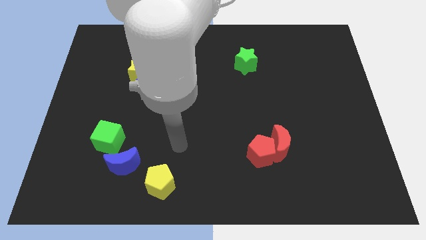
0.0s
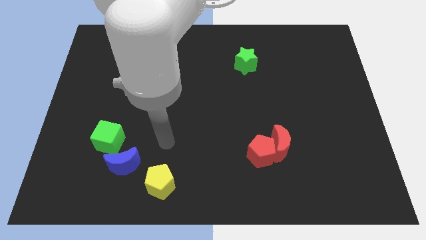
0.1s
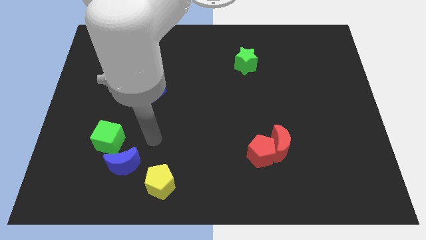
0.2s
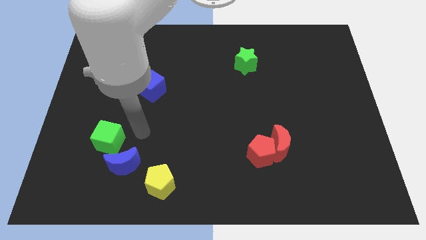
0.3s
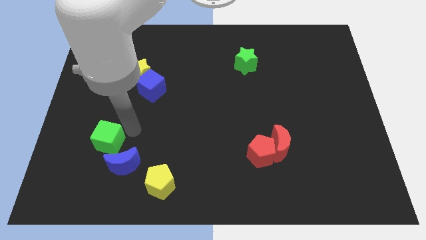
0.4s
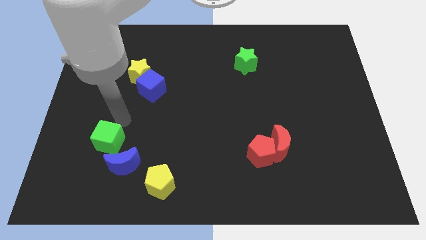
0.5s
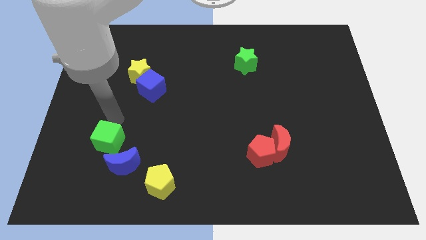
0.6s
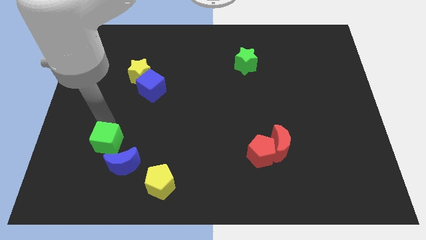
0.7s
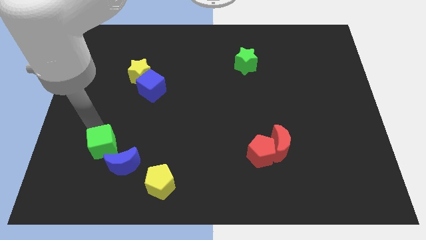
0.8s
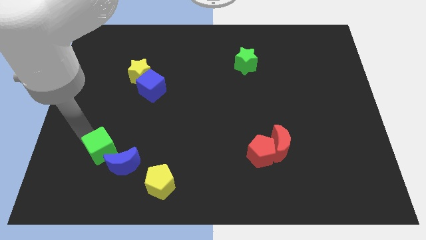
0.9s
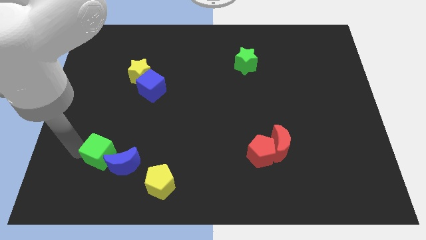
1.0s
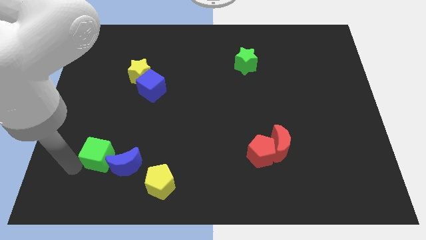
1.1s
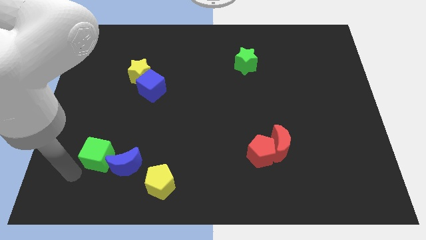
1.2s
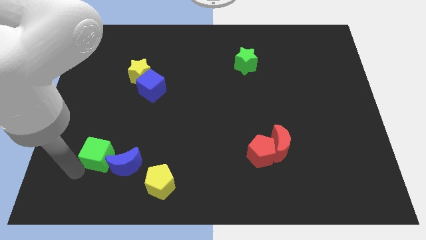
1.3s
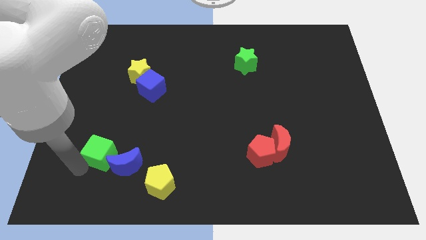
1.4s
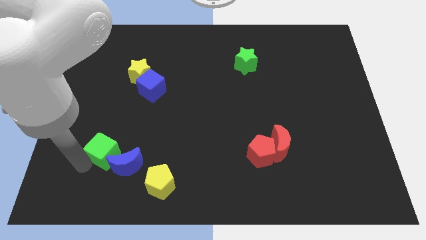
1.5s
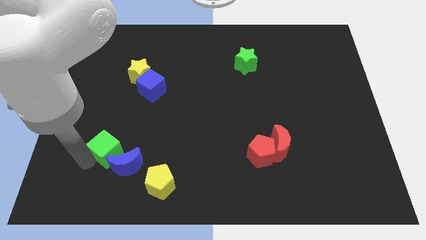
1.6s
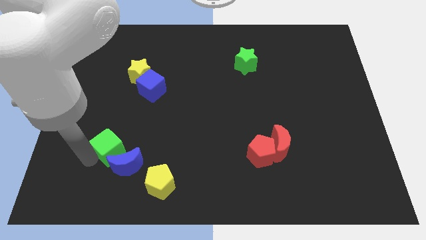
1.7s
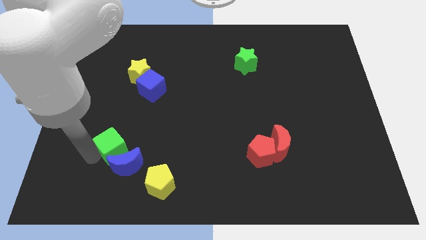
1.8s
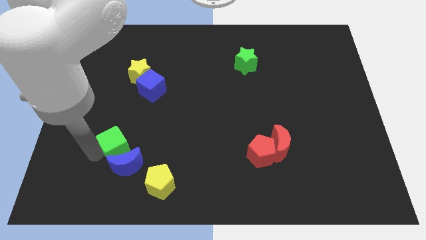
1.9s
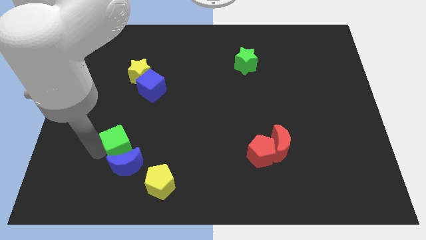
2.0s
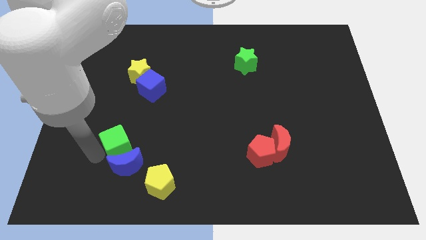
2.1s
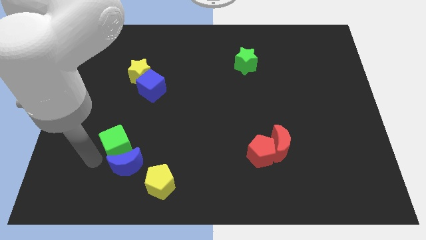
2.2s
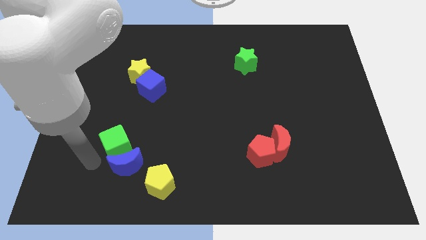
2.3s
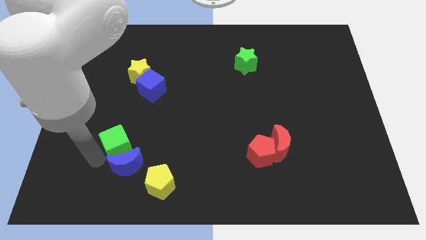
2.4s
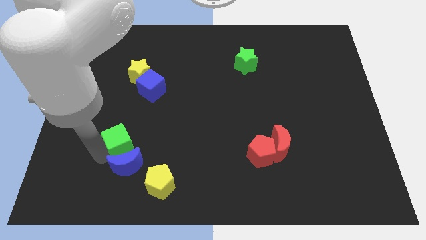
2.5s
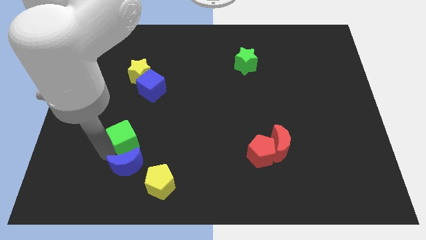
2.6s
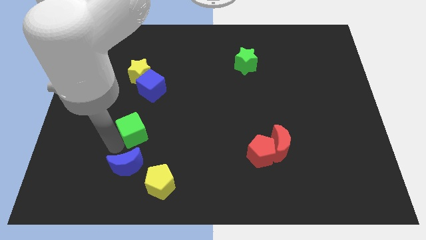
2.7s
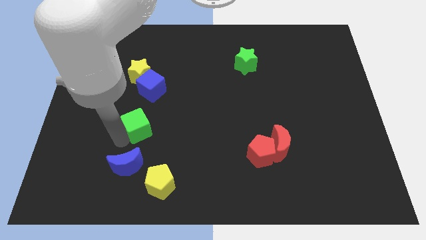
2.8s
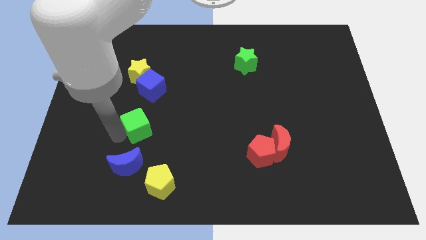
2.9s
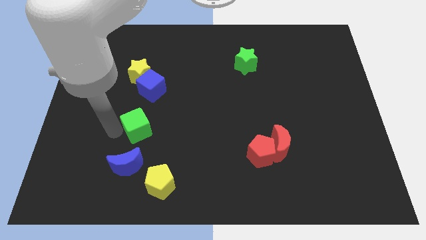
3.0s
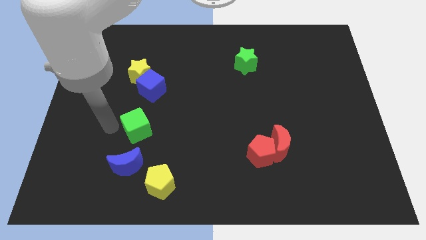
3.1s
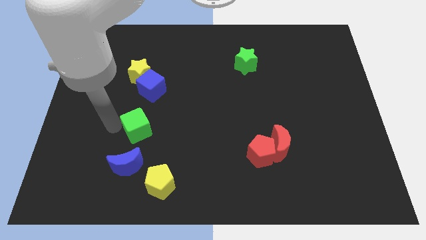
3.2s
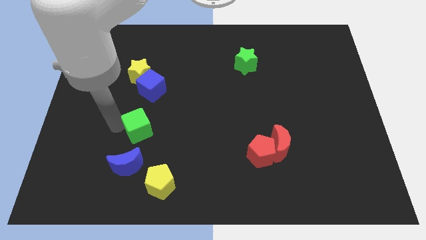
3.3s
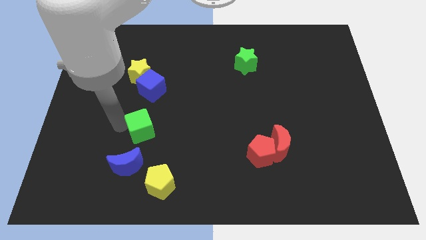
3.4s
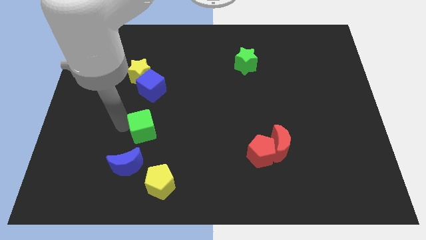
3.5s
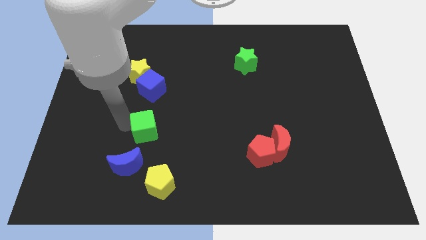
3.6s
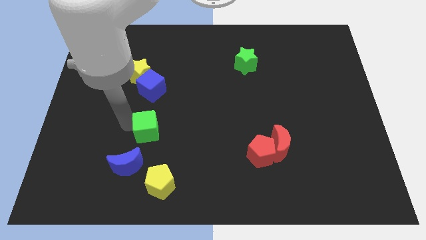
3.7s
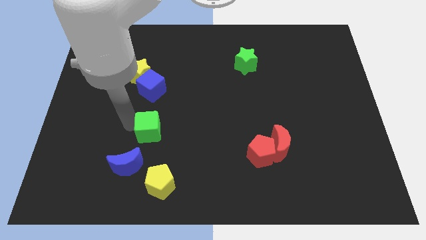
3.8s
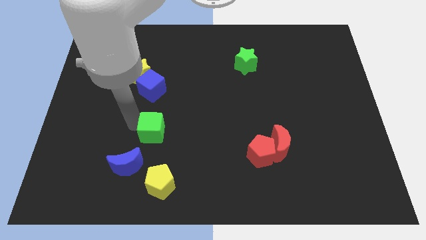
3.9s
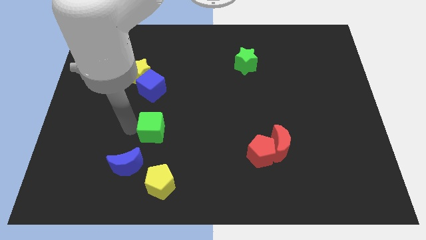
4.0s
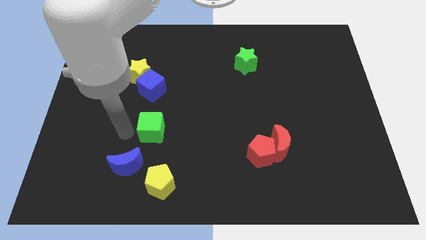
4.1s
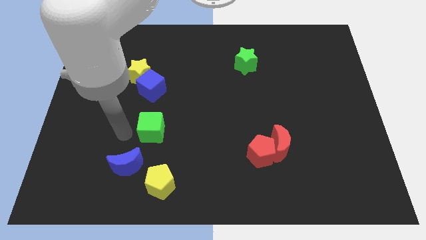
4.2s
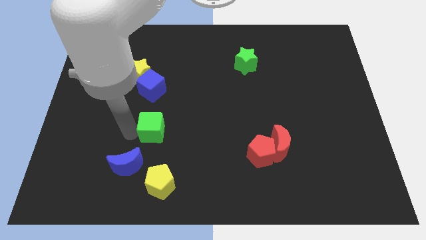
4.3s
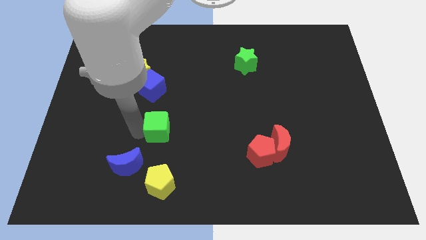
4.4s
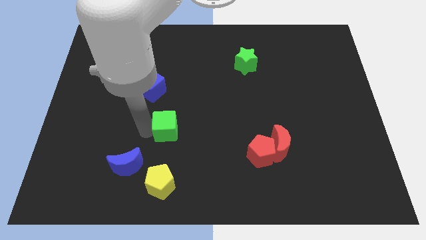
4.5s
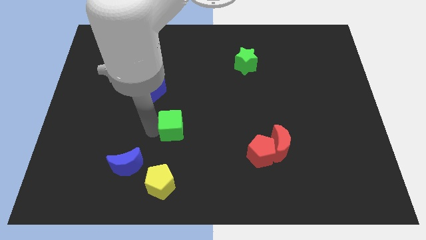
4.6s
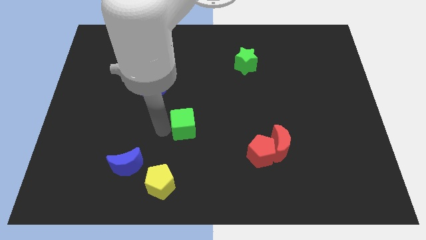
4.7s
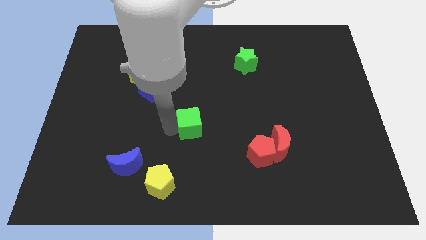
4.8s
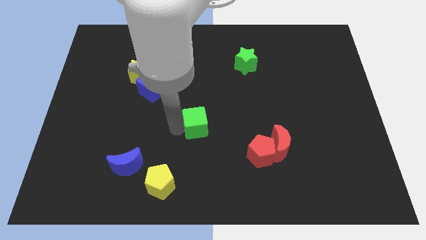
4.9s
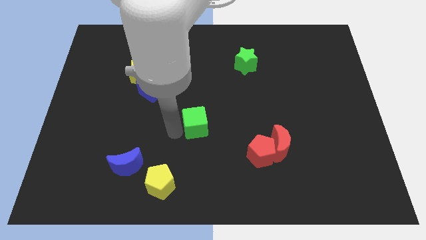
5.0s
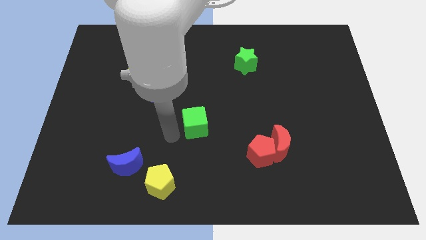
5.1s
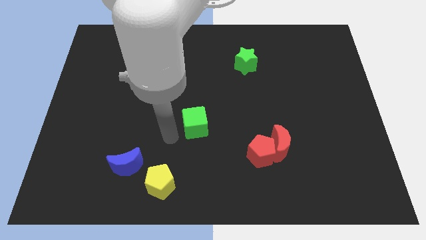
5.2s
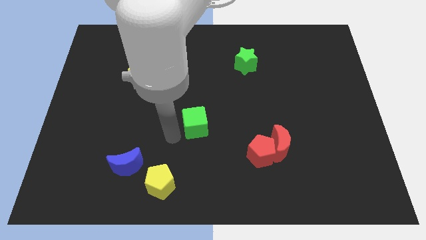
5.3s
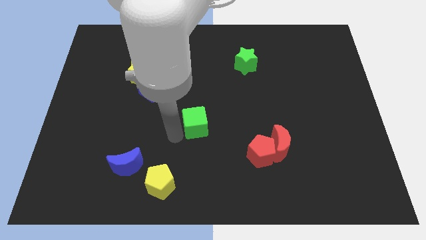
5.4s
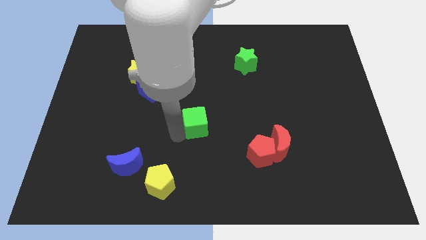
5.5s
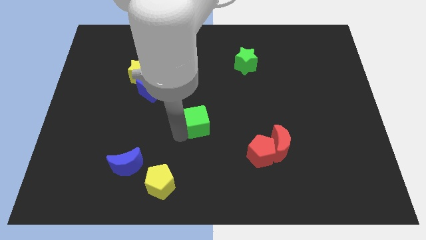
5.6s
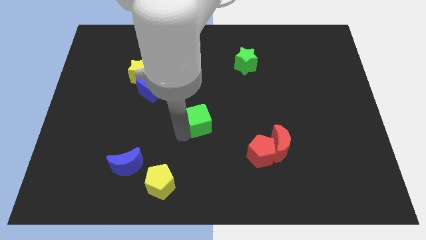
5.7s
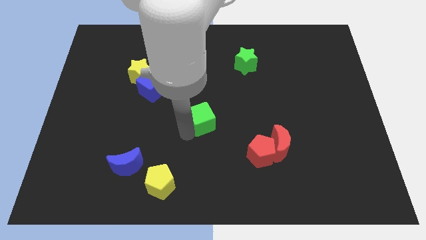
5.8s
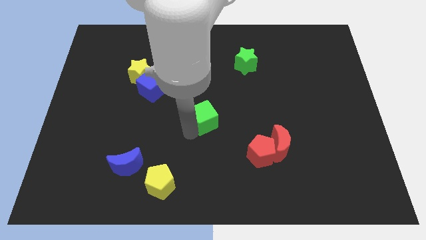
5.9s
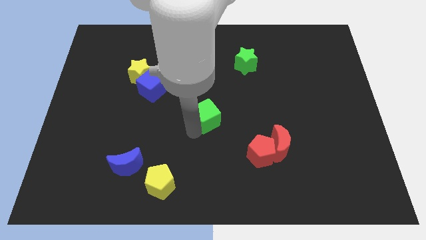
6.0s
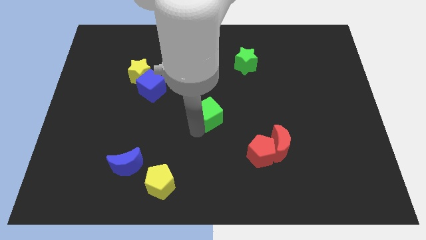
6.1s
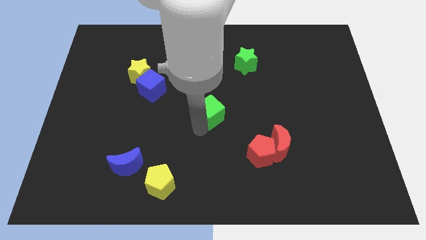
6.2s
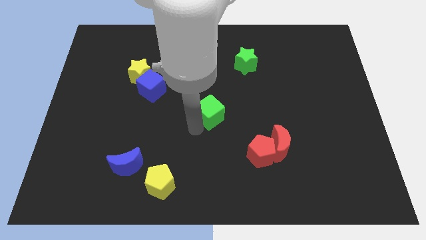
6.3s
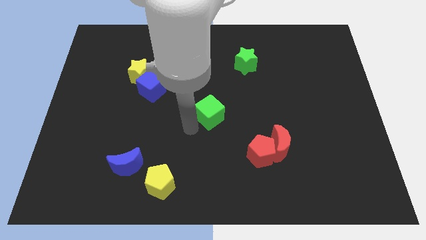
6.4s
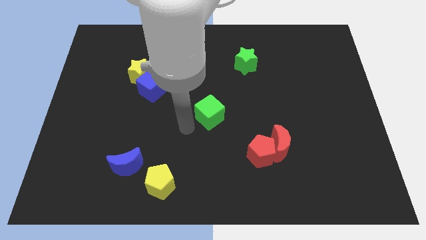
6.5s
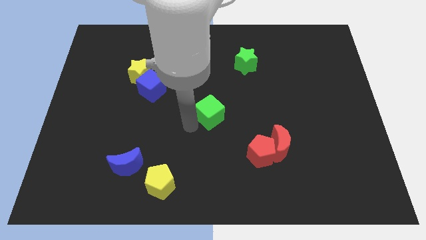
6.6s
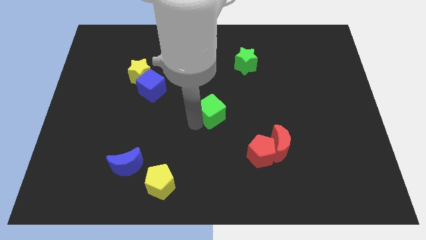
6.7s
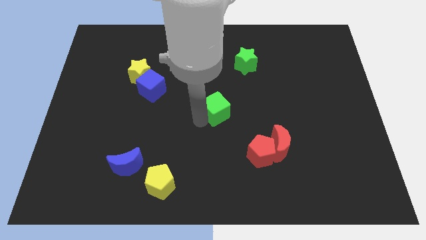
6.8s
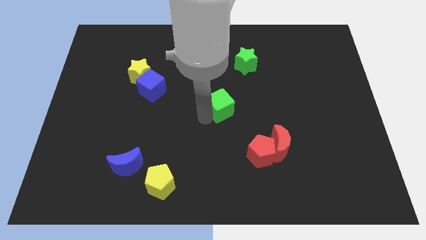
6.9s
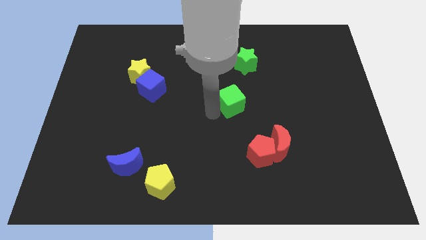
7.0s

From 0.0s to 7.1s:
put the green cube below the green star
